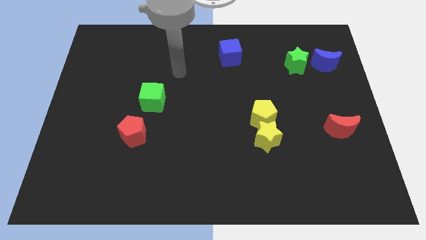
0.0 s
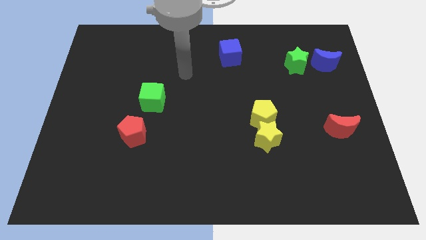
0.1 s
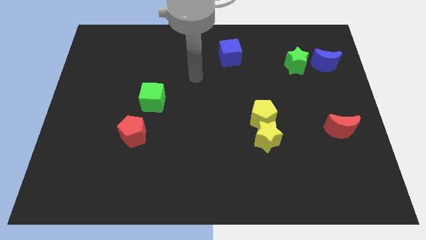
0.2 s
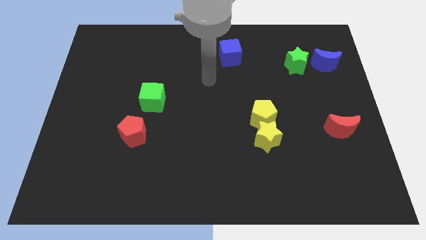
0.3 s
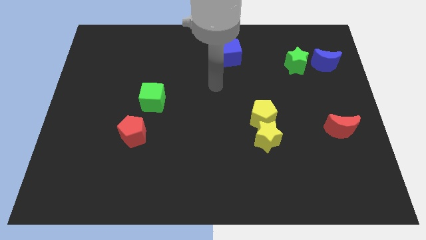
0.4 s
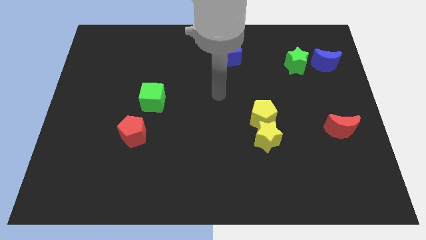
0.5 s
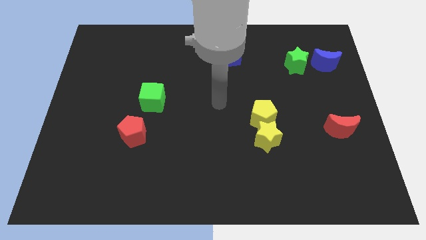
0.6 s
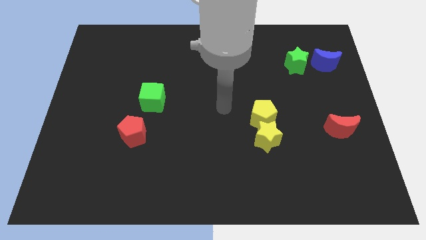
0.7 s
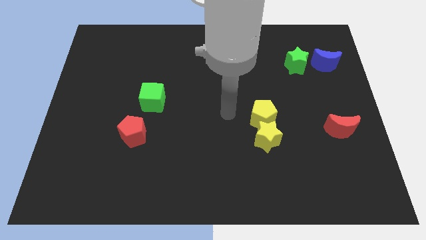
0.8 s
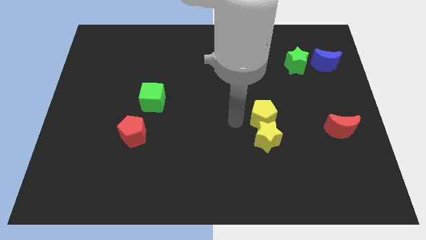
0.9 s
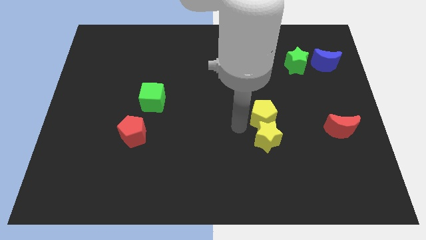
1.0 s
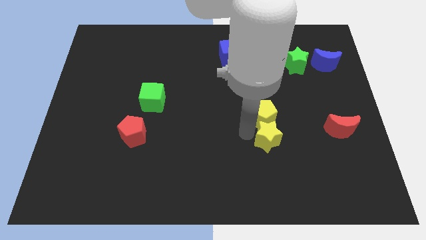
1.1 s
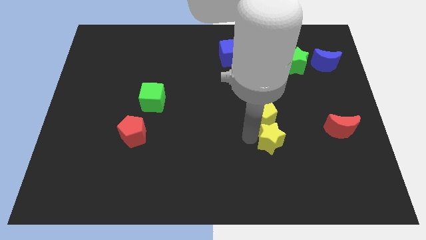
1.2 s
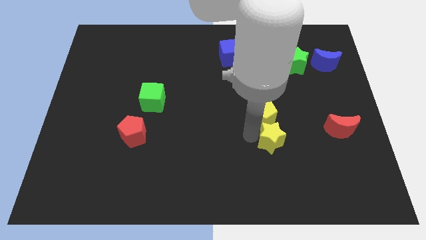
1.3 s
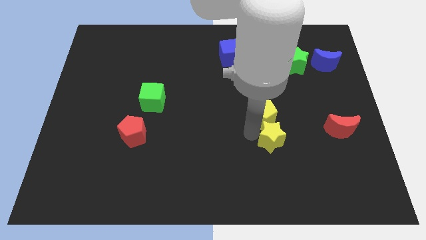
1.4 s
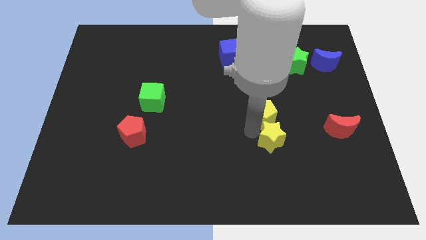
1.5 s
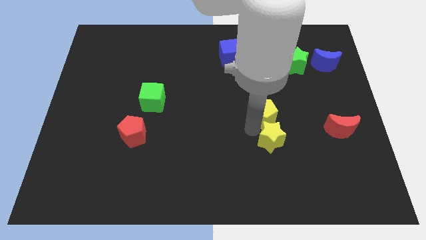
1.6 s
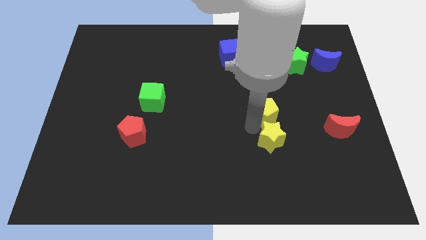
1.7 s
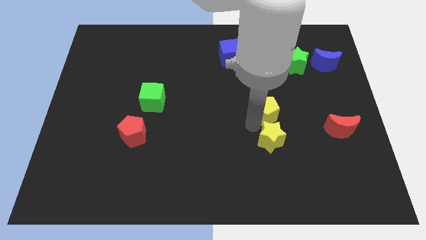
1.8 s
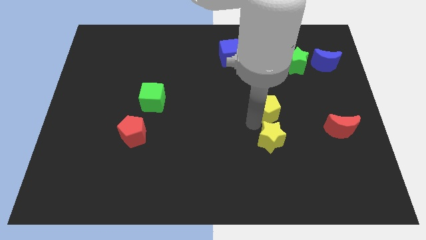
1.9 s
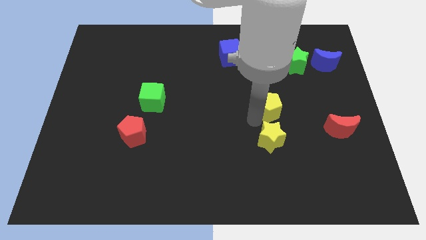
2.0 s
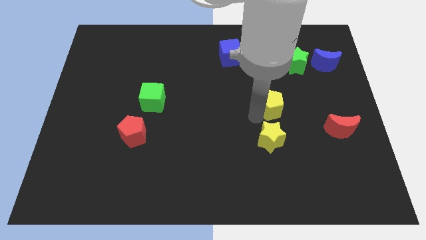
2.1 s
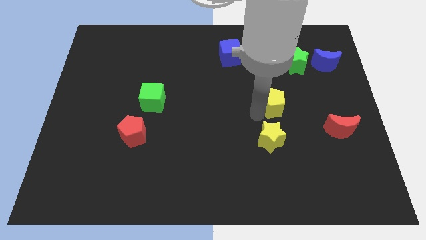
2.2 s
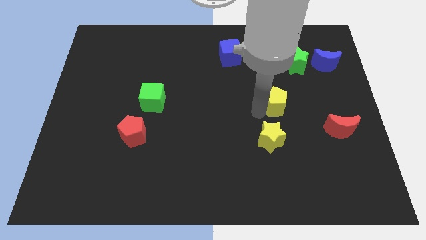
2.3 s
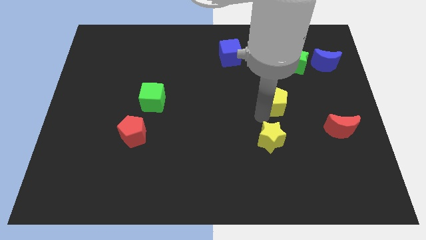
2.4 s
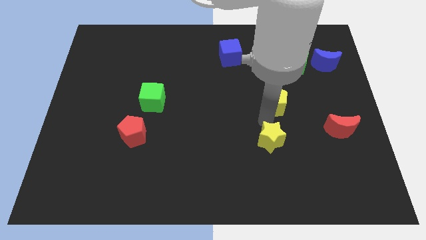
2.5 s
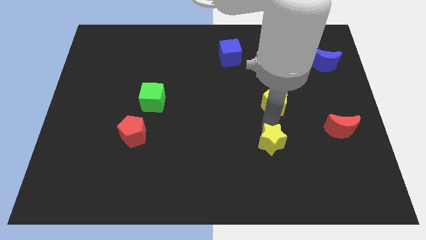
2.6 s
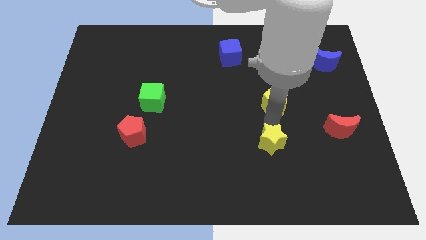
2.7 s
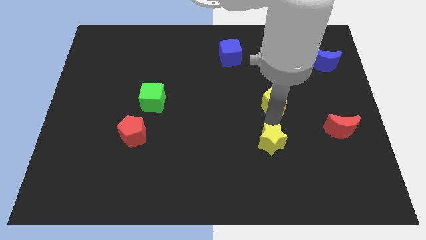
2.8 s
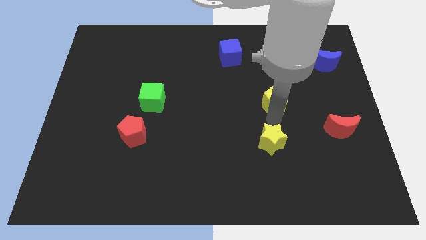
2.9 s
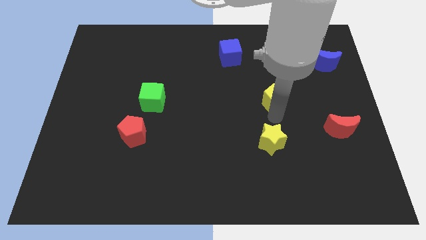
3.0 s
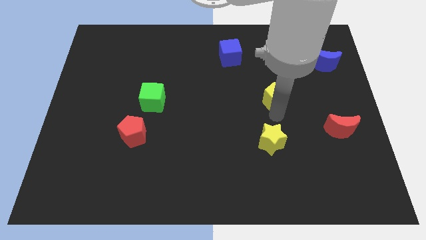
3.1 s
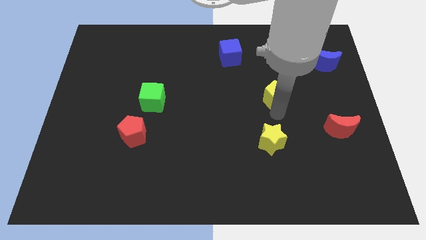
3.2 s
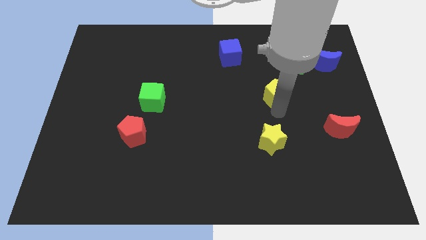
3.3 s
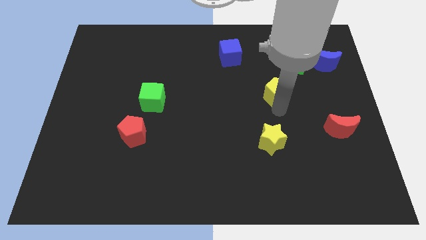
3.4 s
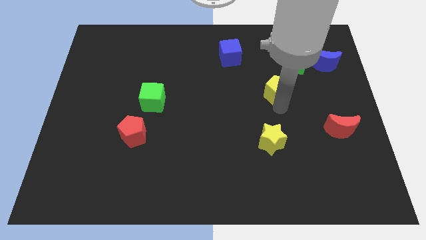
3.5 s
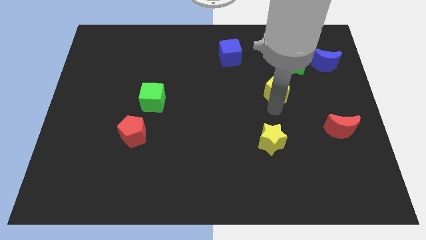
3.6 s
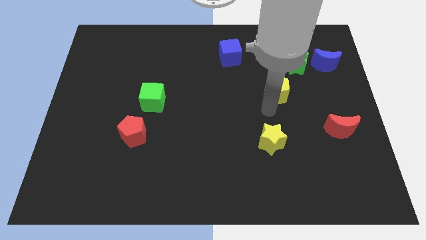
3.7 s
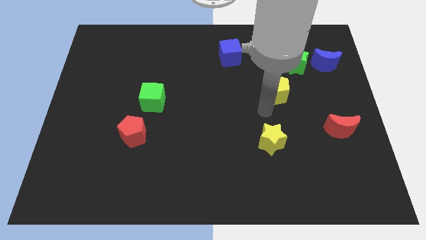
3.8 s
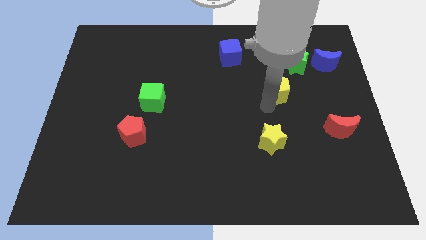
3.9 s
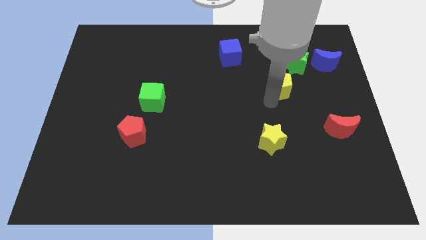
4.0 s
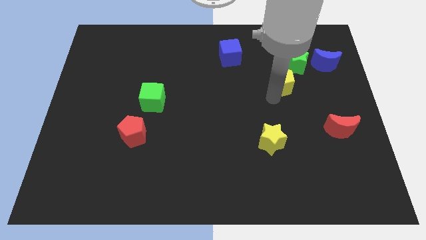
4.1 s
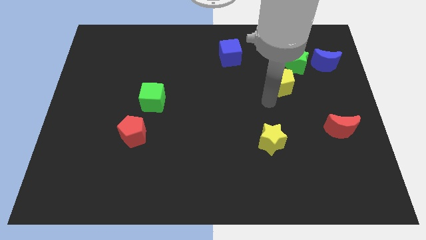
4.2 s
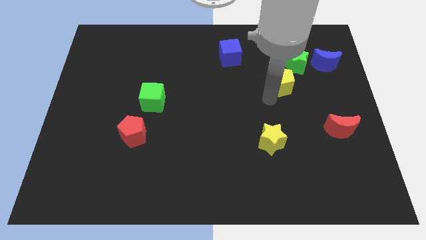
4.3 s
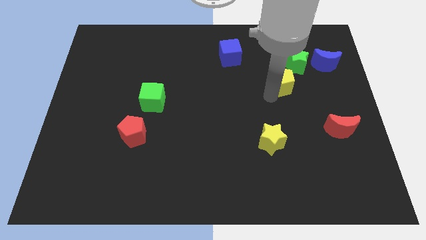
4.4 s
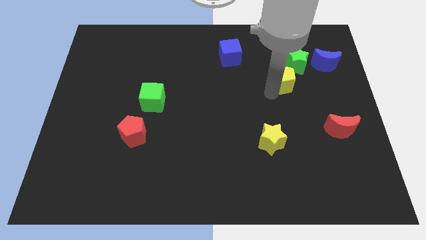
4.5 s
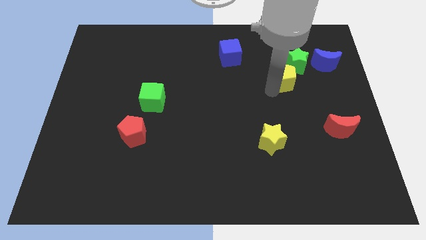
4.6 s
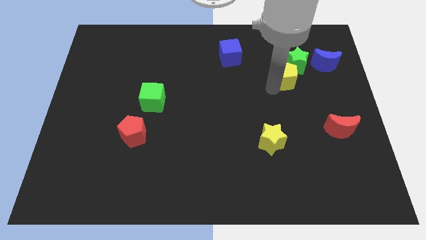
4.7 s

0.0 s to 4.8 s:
push the yellow pentagon close to the green star

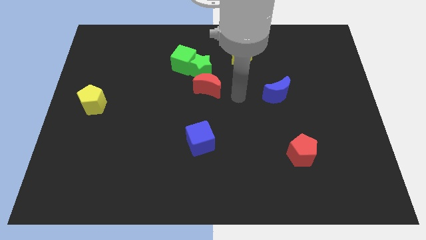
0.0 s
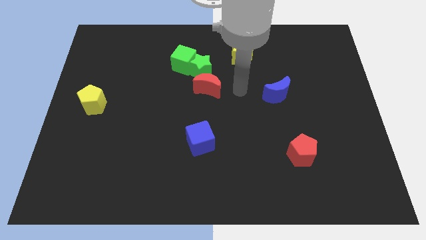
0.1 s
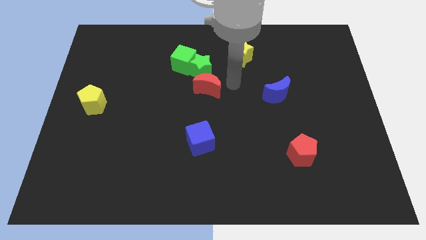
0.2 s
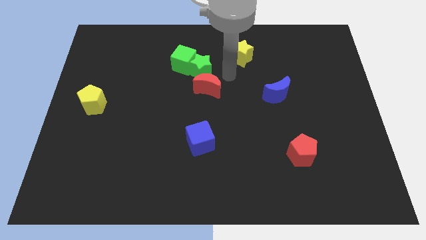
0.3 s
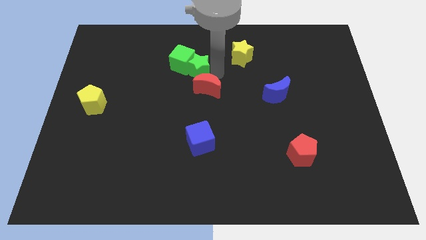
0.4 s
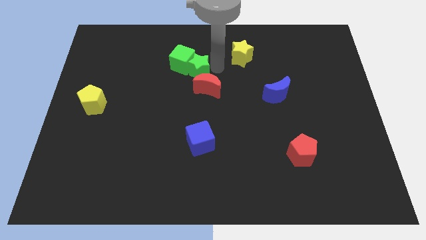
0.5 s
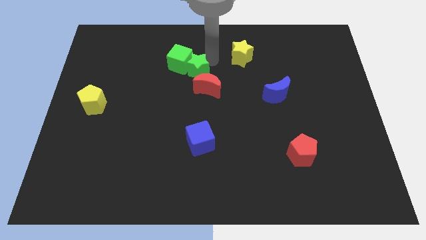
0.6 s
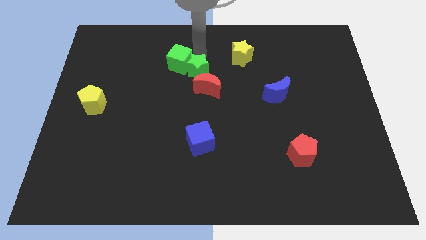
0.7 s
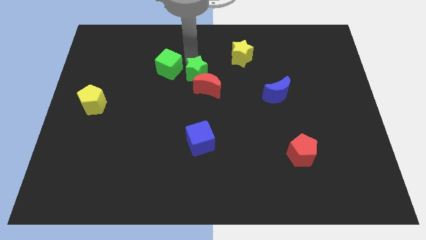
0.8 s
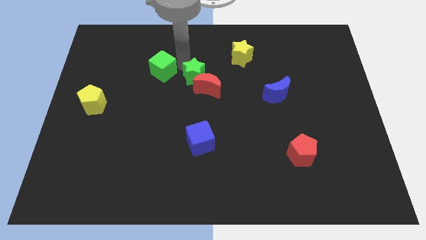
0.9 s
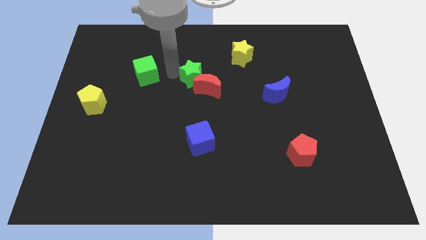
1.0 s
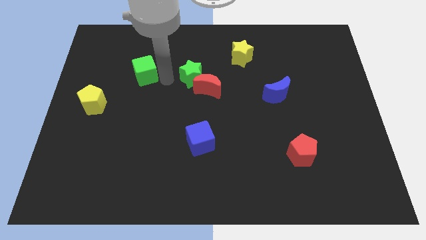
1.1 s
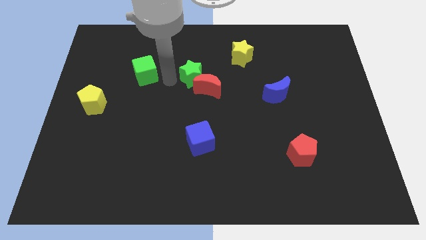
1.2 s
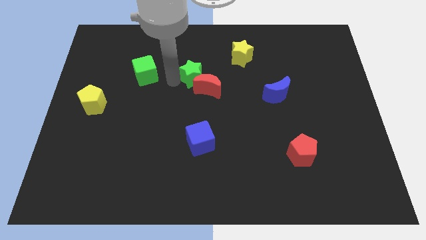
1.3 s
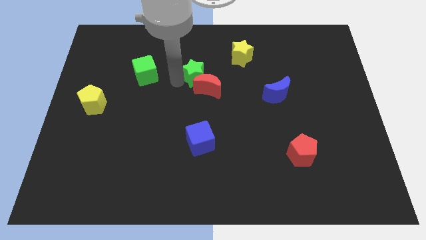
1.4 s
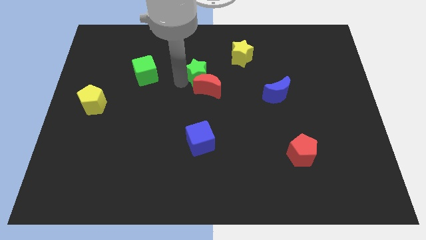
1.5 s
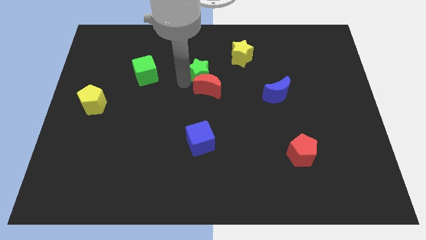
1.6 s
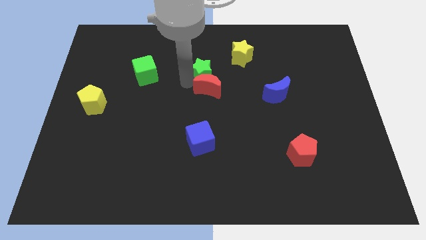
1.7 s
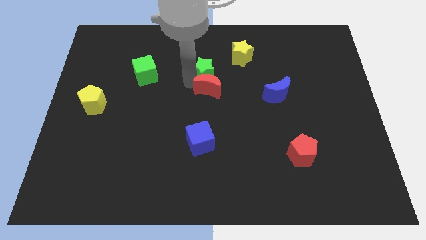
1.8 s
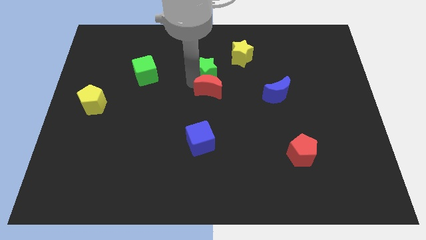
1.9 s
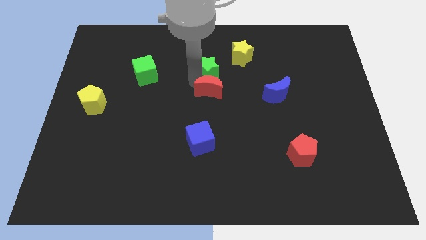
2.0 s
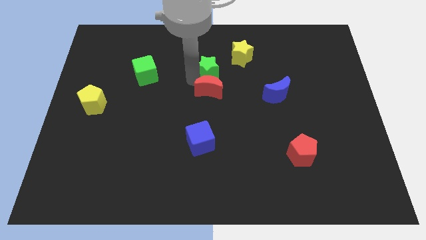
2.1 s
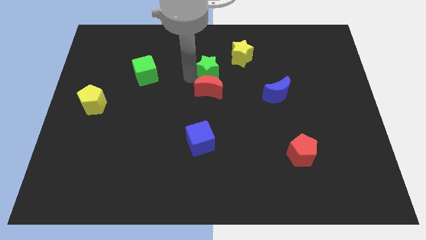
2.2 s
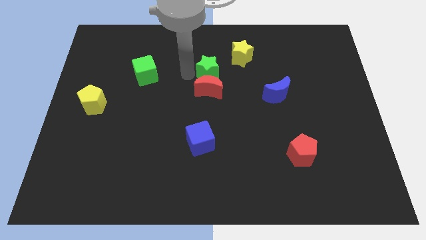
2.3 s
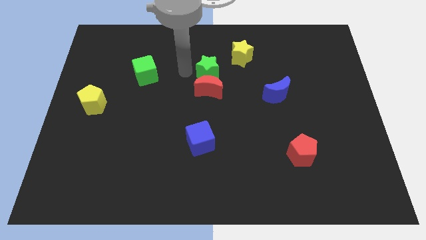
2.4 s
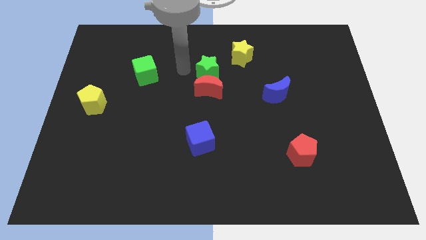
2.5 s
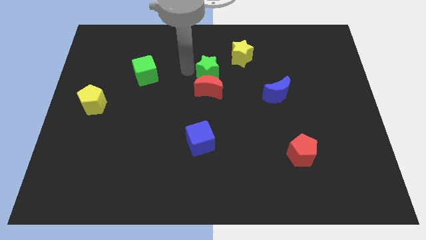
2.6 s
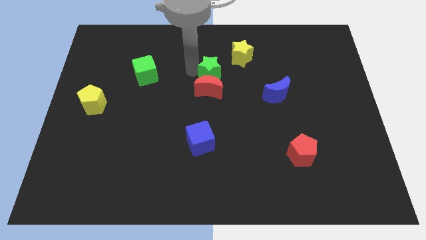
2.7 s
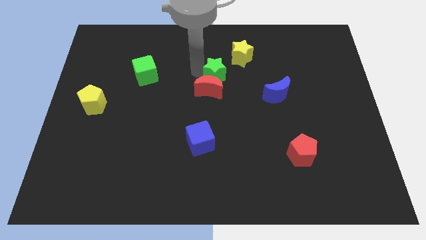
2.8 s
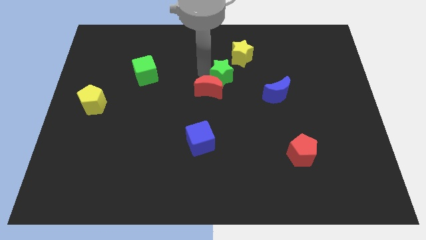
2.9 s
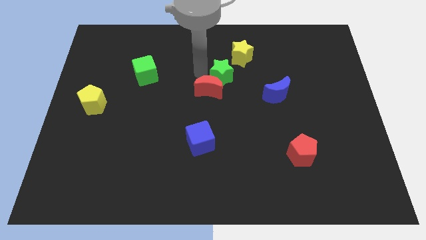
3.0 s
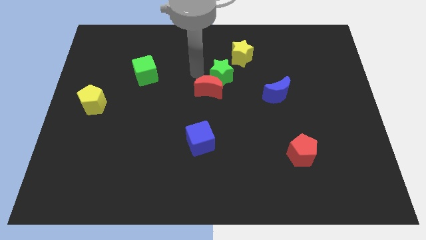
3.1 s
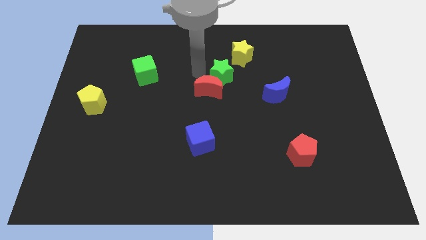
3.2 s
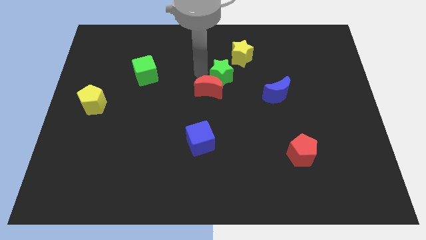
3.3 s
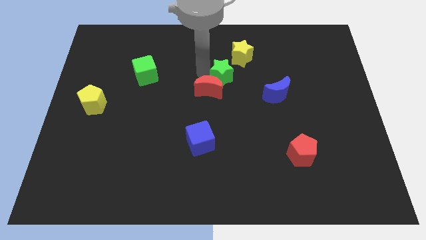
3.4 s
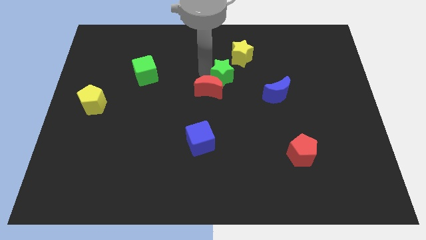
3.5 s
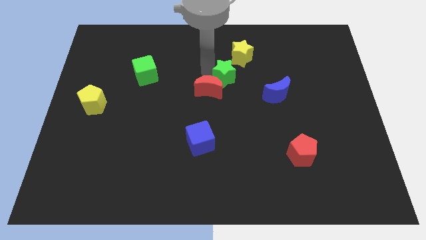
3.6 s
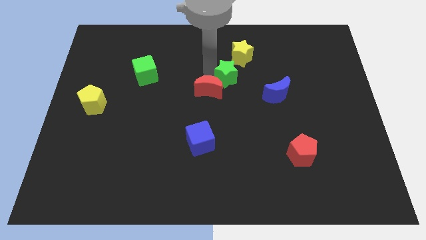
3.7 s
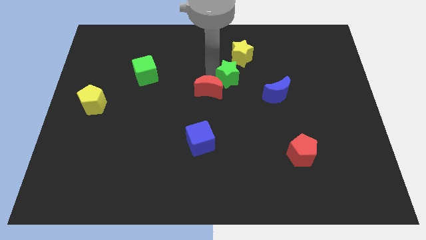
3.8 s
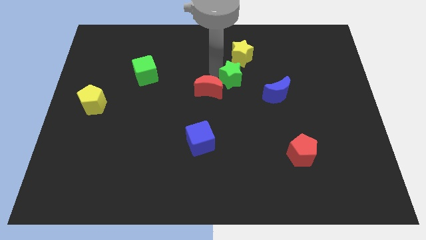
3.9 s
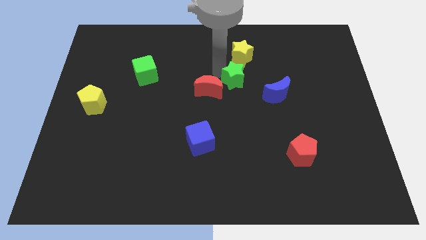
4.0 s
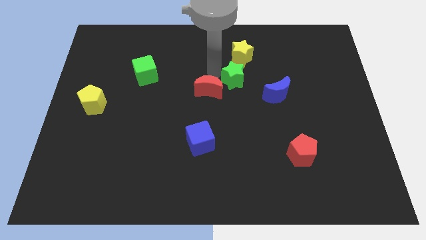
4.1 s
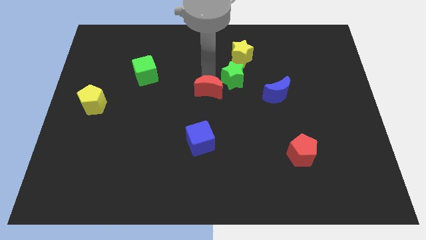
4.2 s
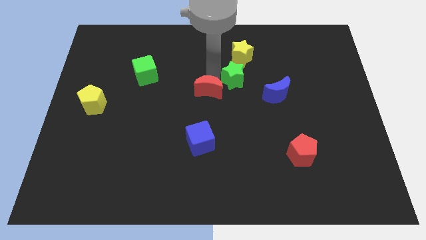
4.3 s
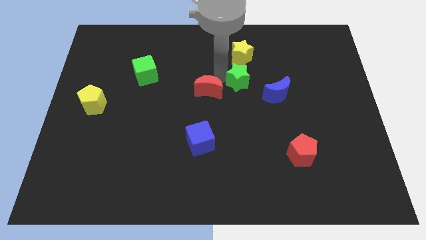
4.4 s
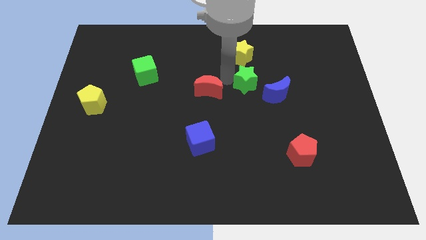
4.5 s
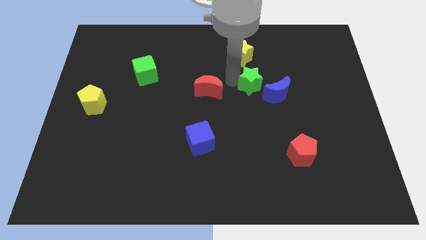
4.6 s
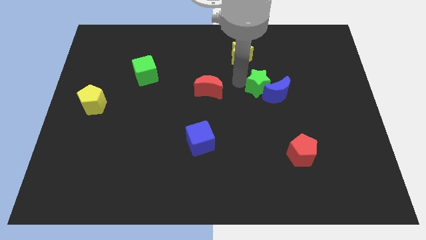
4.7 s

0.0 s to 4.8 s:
push the green star towards the blue moon
